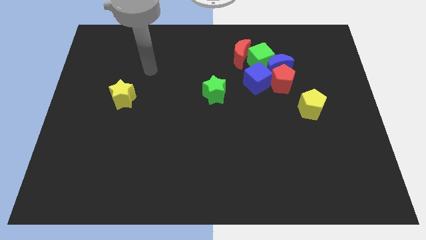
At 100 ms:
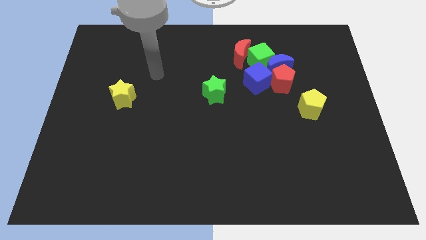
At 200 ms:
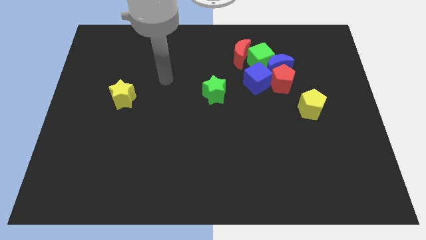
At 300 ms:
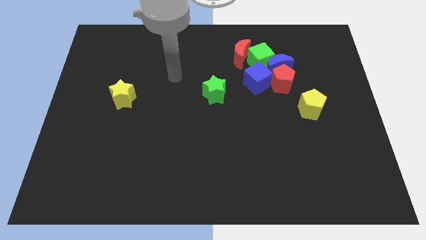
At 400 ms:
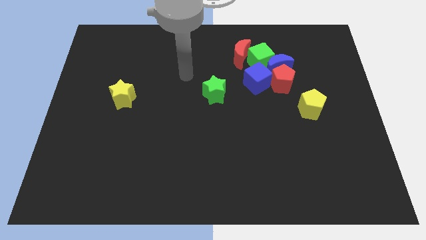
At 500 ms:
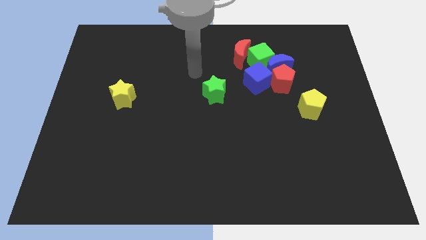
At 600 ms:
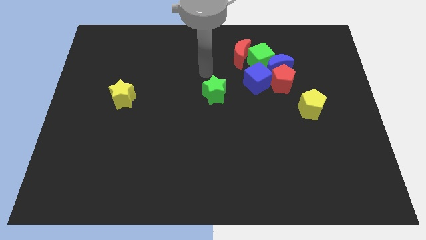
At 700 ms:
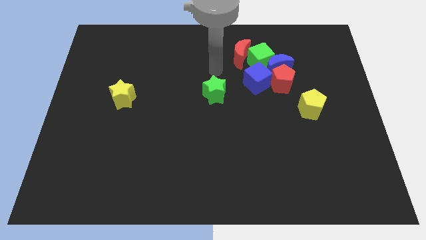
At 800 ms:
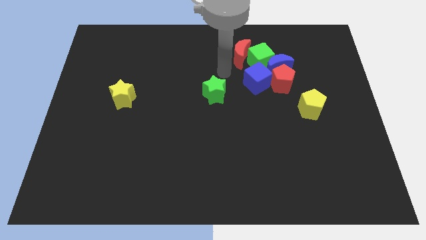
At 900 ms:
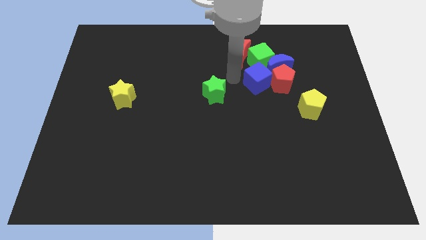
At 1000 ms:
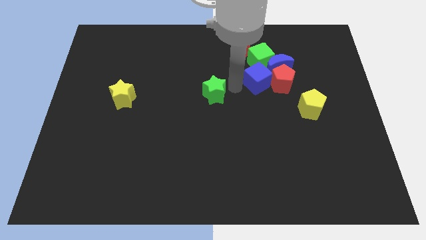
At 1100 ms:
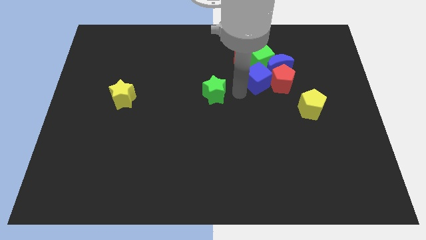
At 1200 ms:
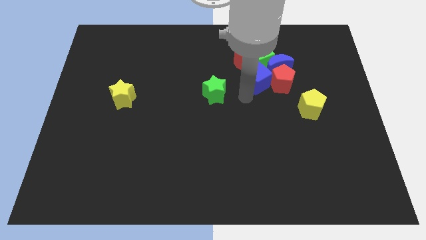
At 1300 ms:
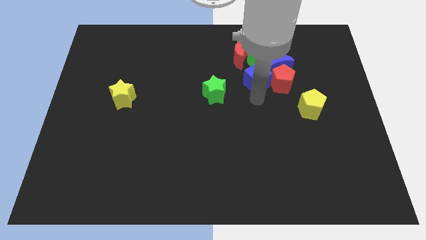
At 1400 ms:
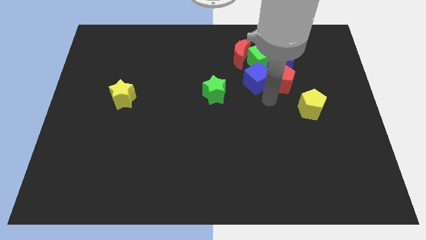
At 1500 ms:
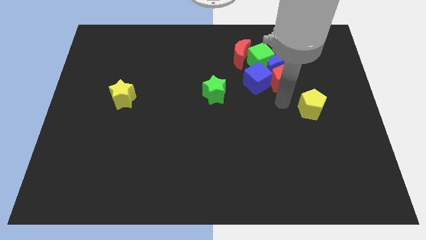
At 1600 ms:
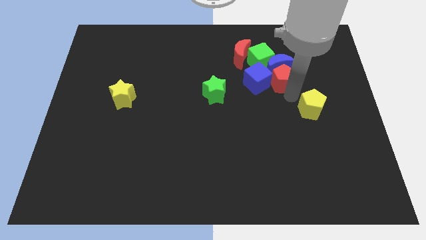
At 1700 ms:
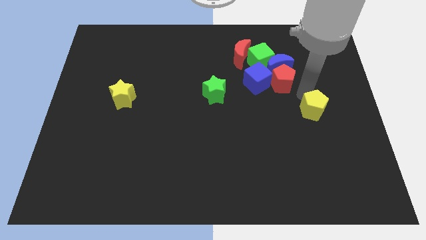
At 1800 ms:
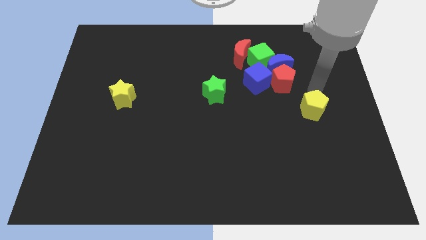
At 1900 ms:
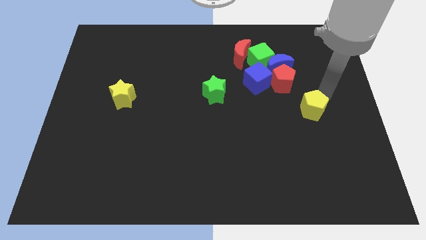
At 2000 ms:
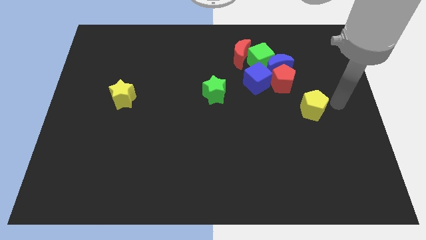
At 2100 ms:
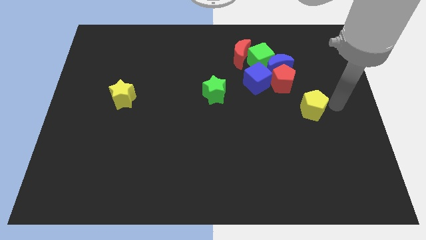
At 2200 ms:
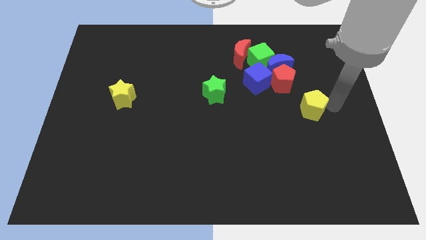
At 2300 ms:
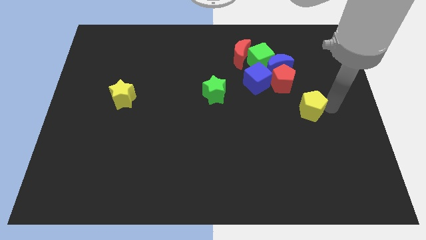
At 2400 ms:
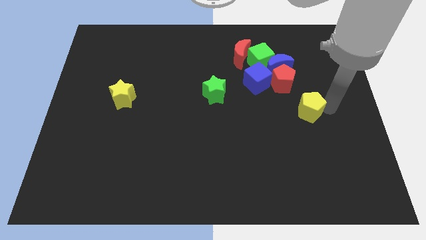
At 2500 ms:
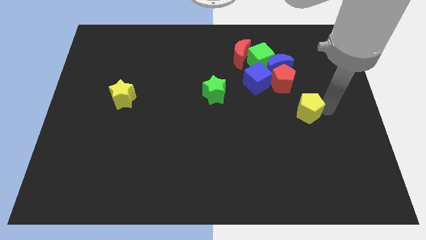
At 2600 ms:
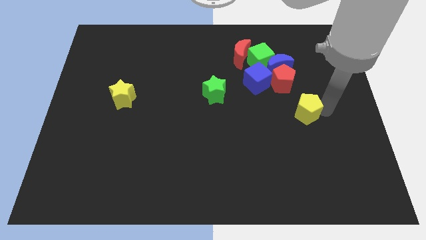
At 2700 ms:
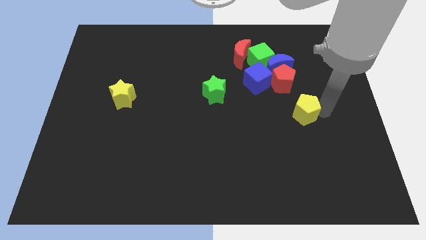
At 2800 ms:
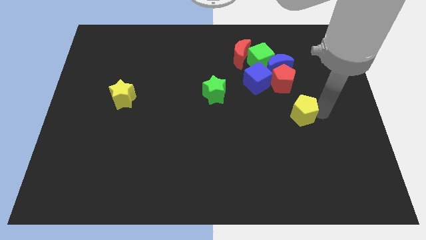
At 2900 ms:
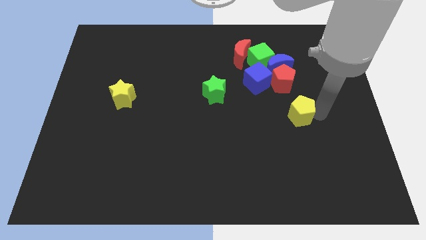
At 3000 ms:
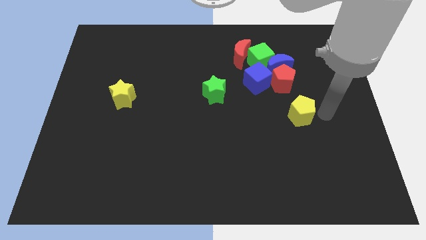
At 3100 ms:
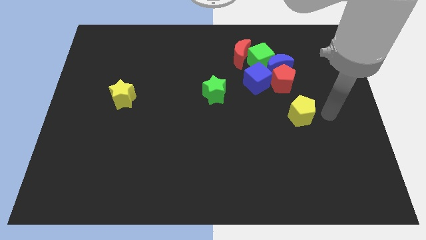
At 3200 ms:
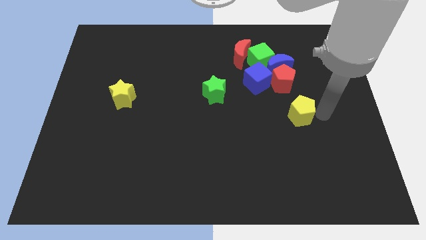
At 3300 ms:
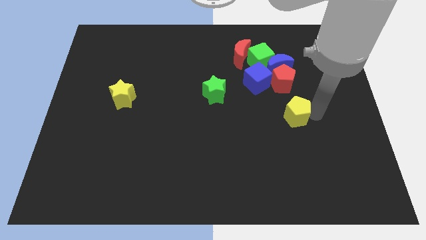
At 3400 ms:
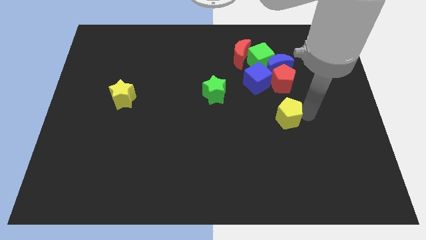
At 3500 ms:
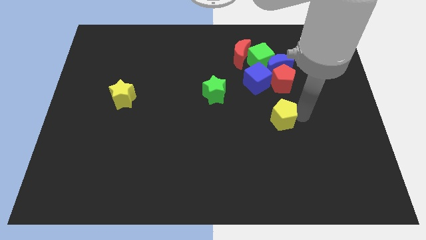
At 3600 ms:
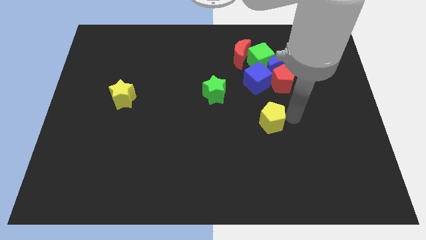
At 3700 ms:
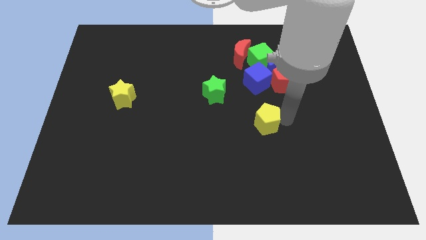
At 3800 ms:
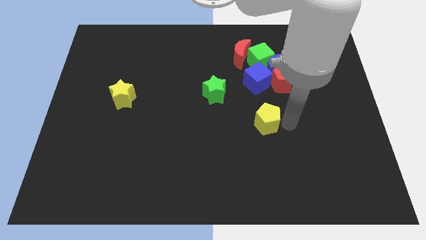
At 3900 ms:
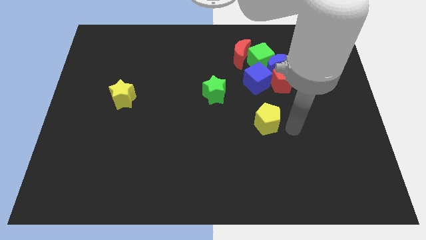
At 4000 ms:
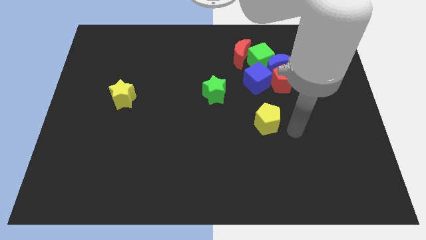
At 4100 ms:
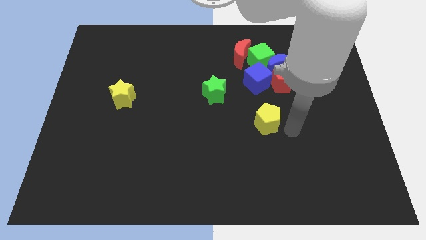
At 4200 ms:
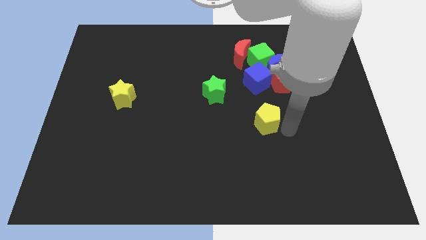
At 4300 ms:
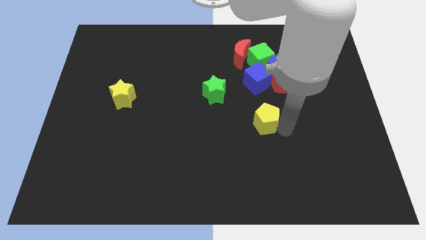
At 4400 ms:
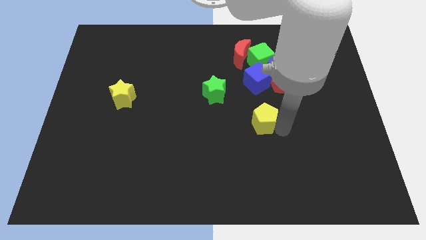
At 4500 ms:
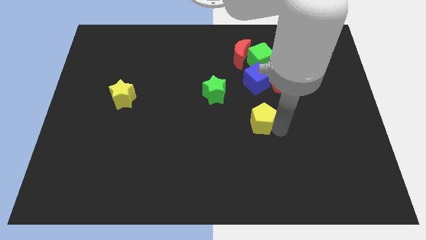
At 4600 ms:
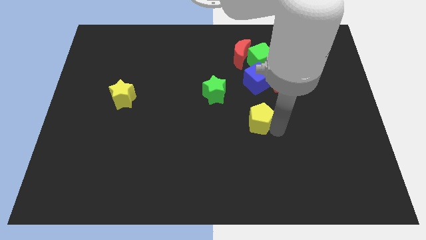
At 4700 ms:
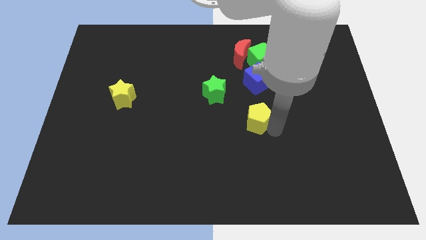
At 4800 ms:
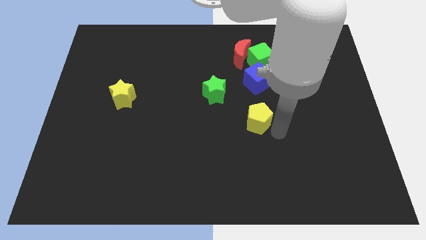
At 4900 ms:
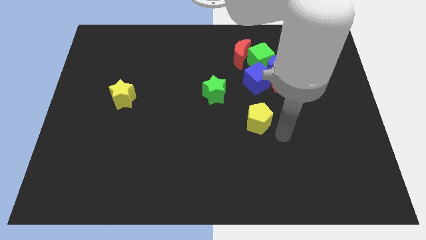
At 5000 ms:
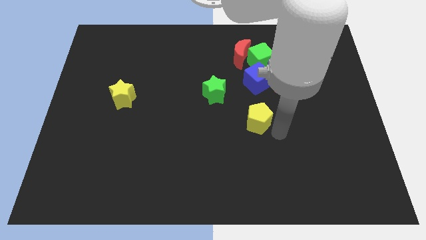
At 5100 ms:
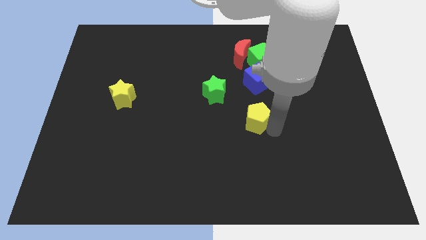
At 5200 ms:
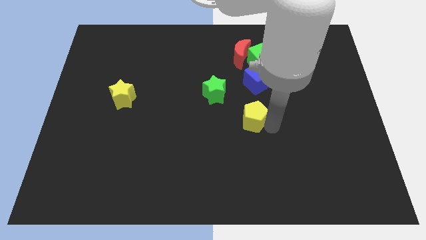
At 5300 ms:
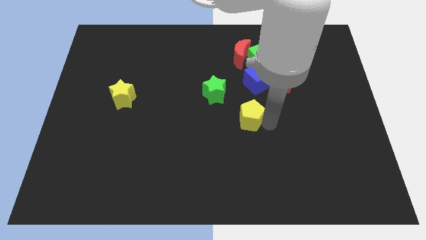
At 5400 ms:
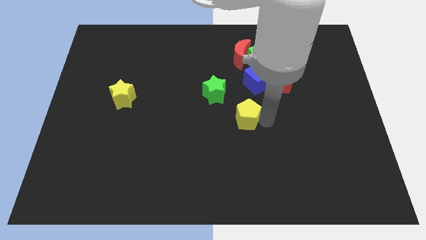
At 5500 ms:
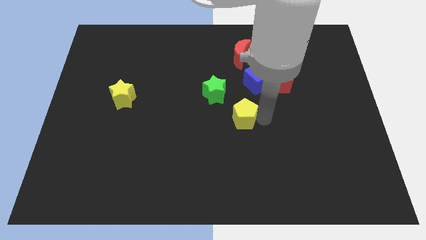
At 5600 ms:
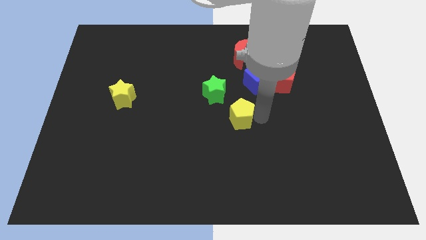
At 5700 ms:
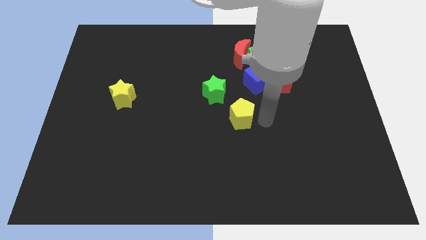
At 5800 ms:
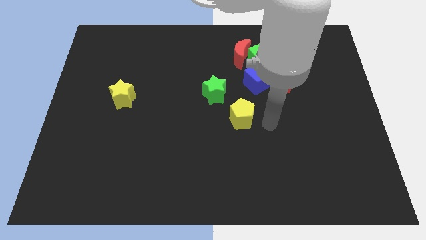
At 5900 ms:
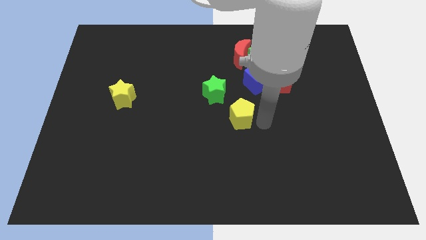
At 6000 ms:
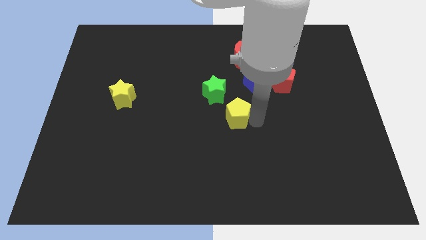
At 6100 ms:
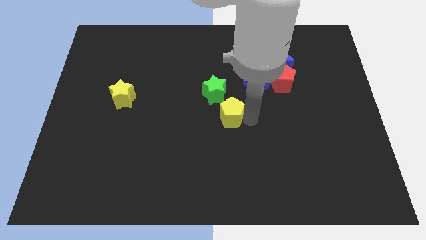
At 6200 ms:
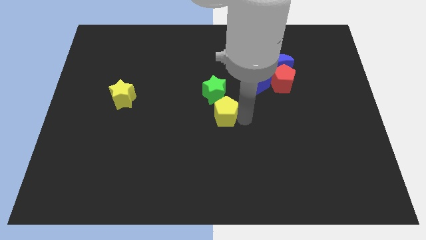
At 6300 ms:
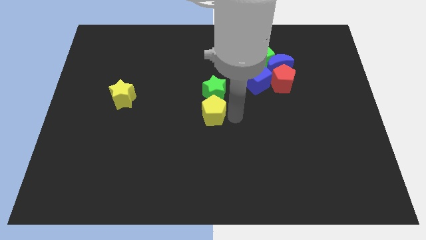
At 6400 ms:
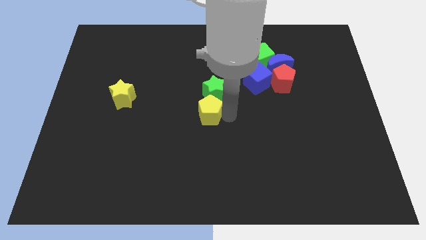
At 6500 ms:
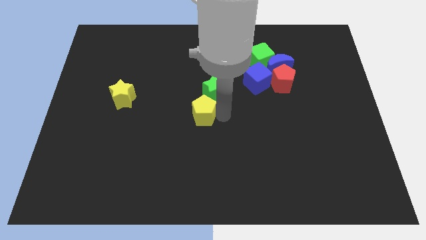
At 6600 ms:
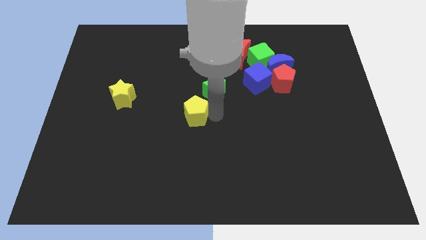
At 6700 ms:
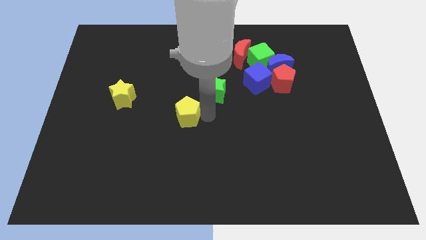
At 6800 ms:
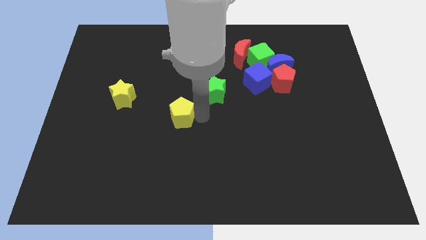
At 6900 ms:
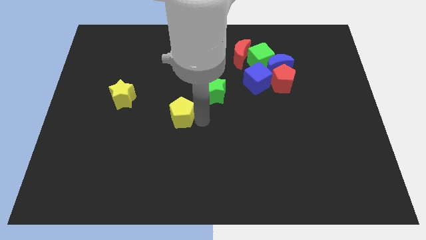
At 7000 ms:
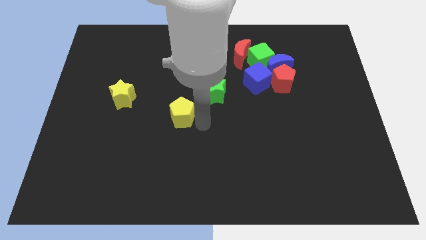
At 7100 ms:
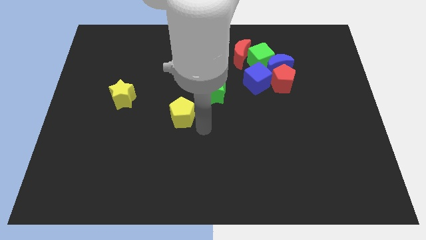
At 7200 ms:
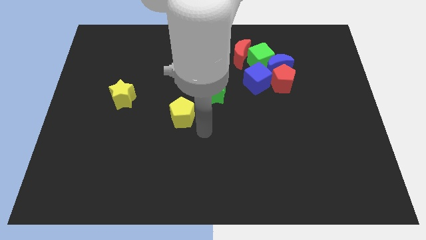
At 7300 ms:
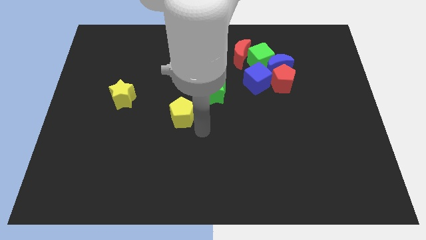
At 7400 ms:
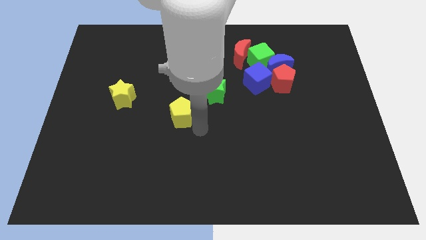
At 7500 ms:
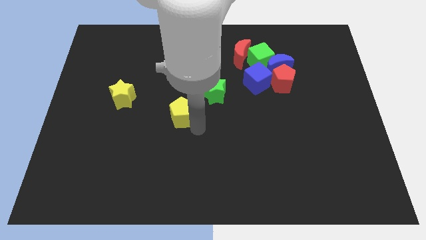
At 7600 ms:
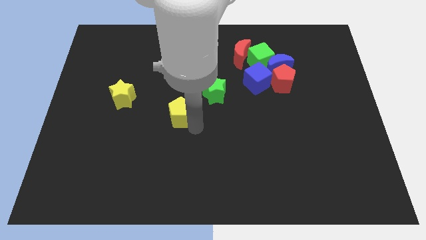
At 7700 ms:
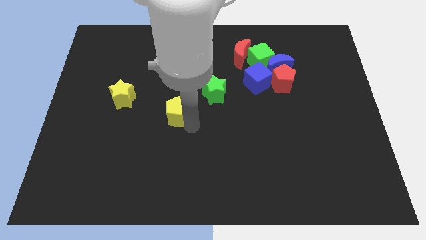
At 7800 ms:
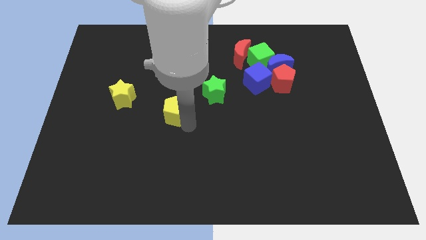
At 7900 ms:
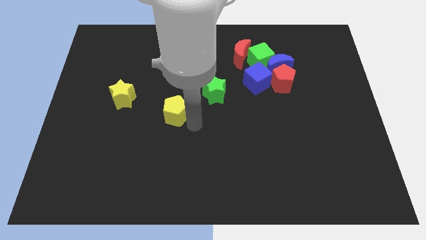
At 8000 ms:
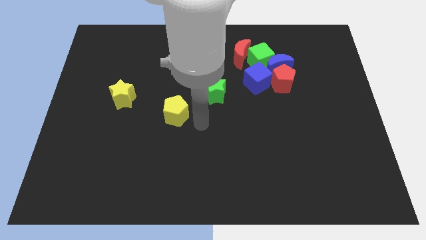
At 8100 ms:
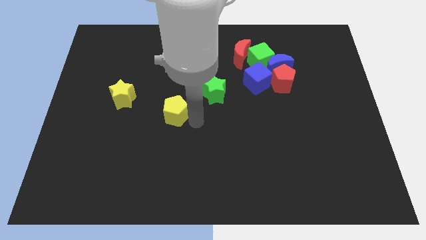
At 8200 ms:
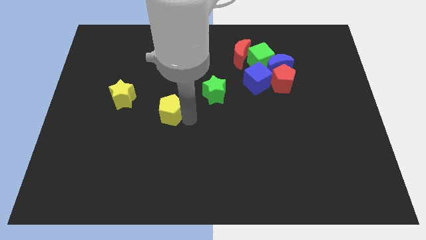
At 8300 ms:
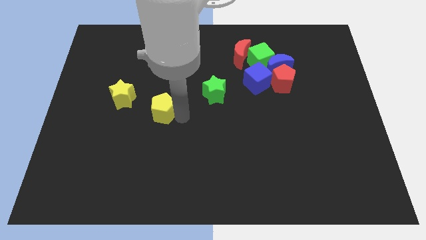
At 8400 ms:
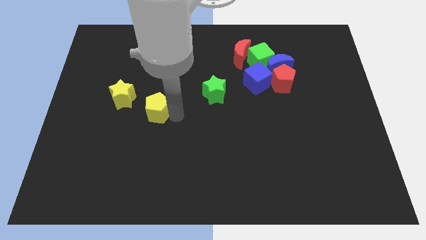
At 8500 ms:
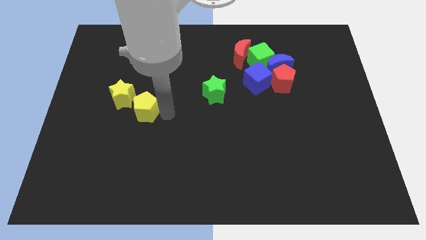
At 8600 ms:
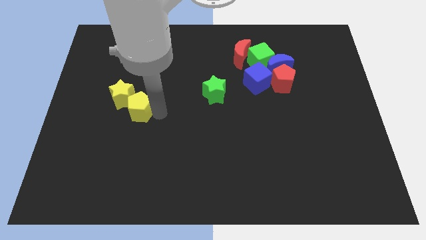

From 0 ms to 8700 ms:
push the yellow pentagon to the yellow star
